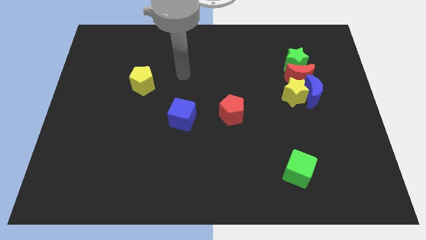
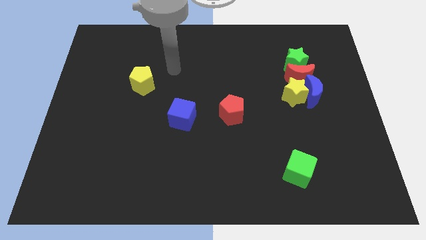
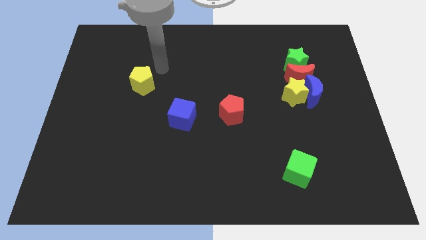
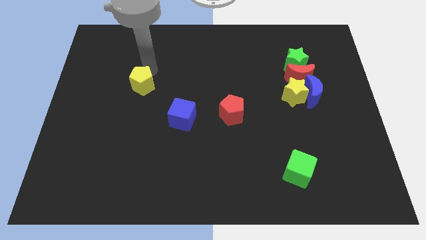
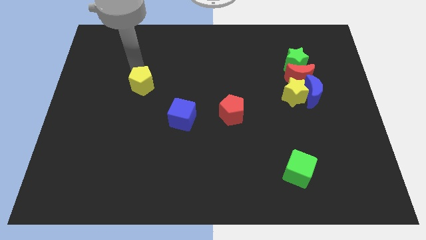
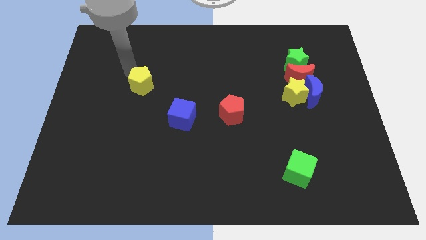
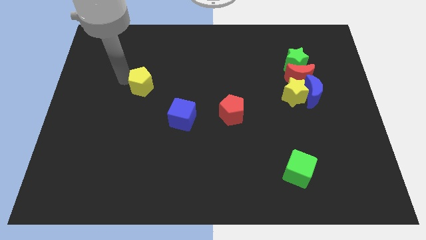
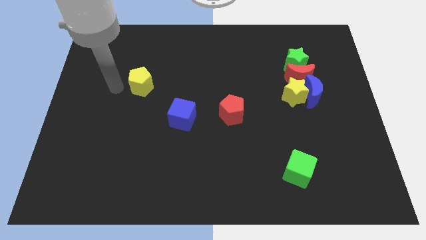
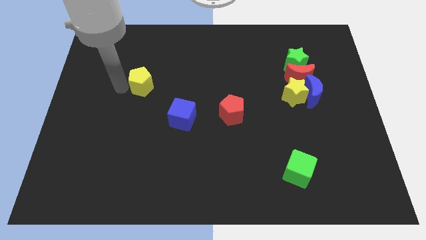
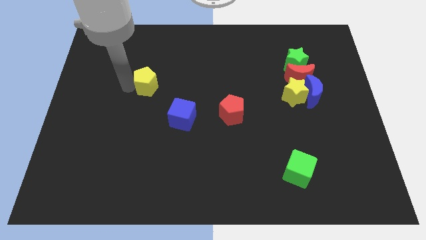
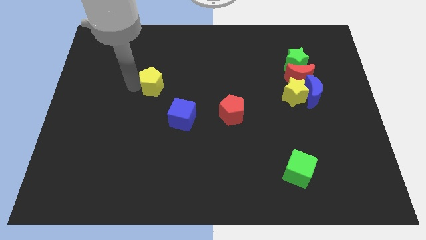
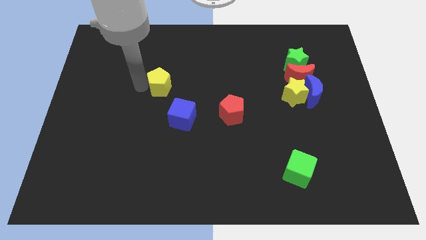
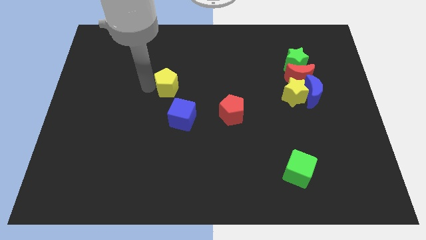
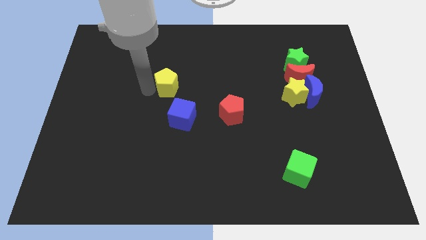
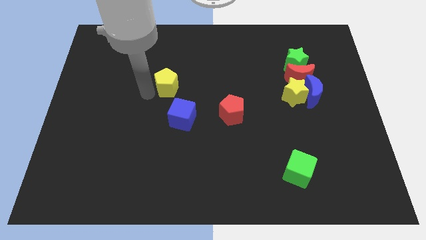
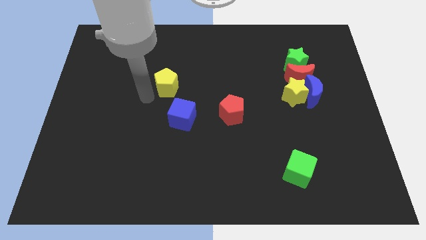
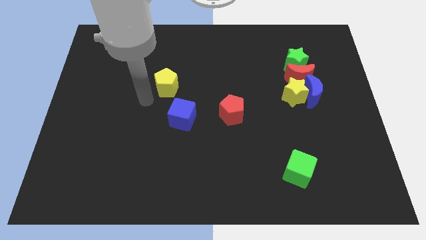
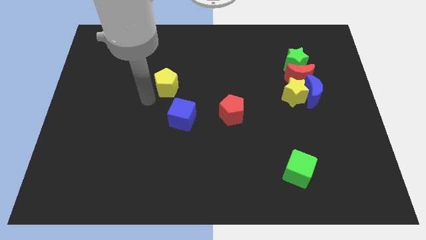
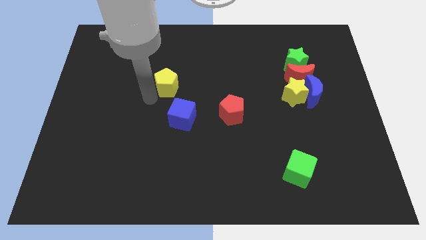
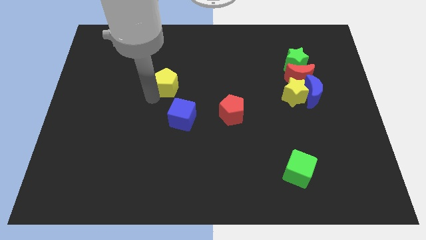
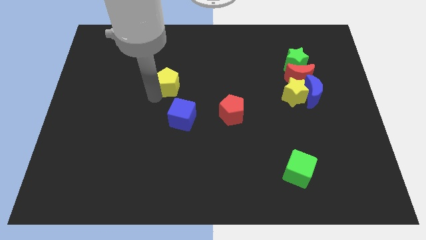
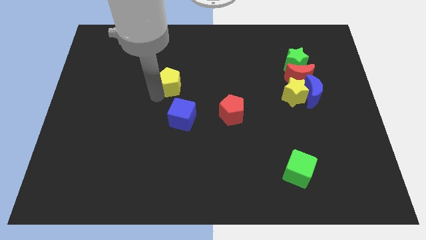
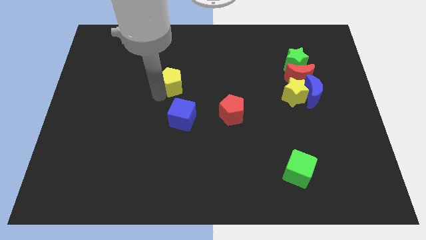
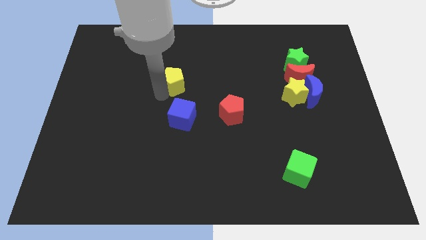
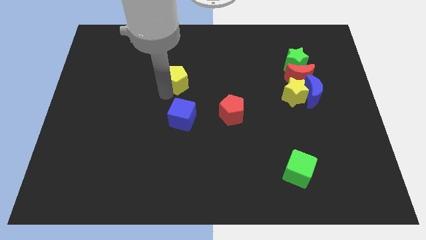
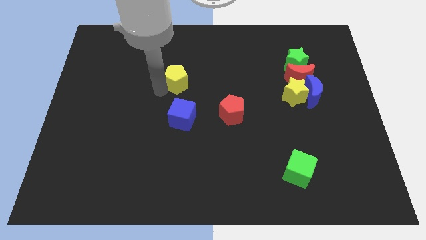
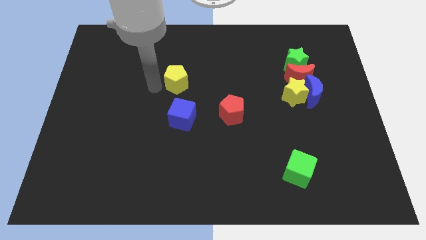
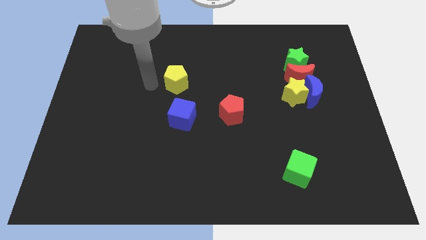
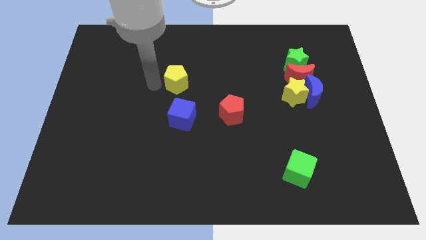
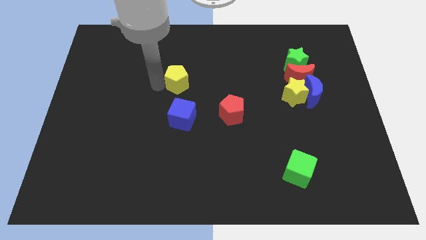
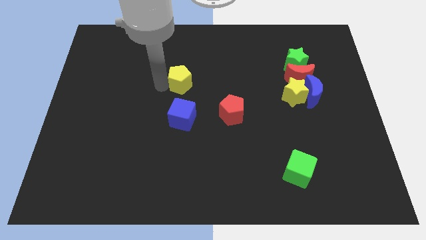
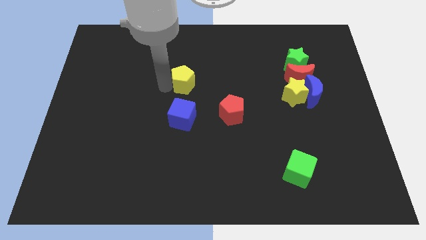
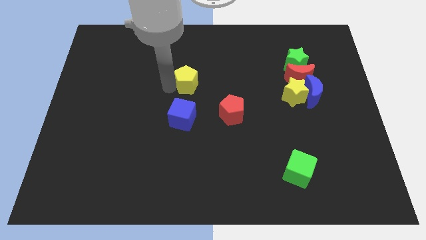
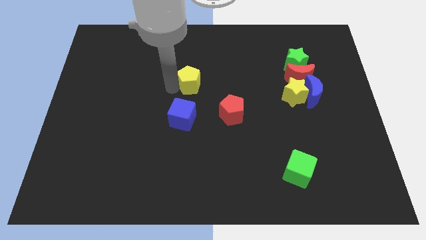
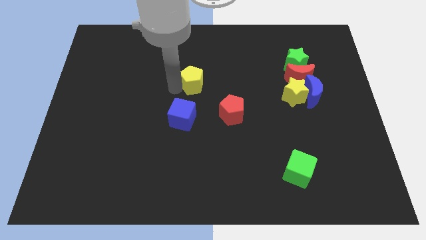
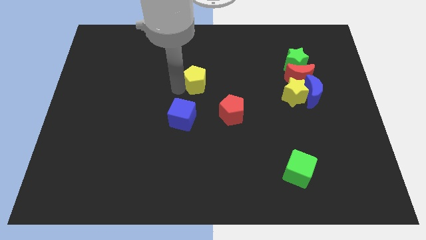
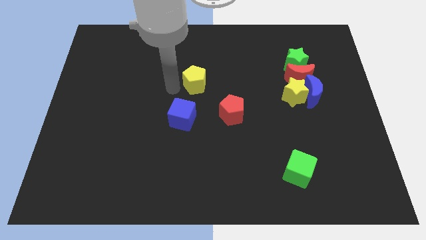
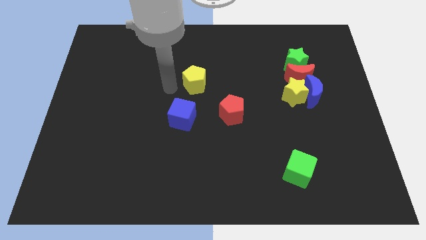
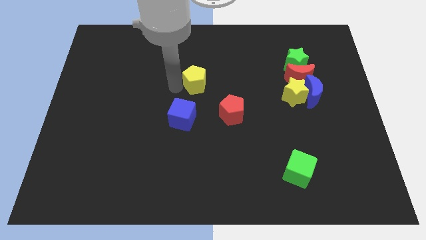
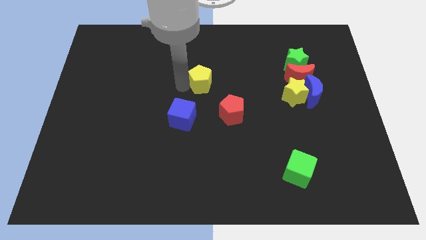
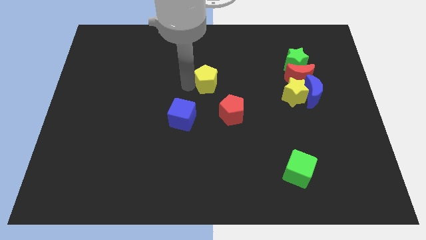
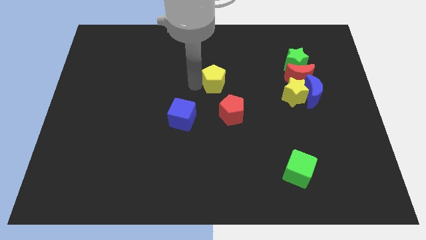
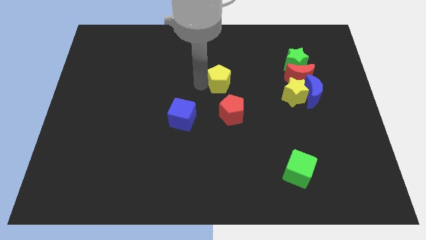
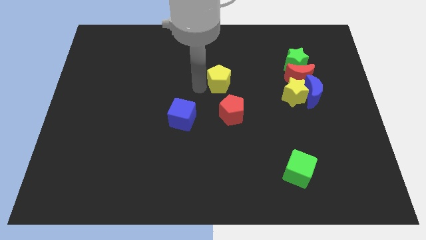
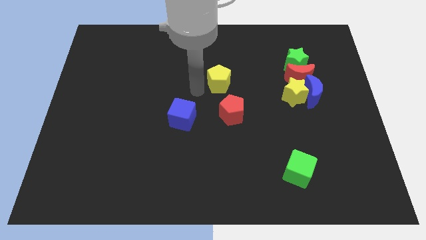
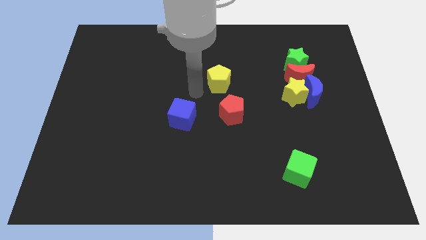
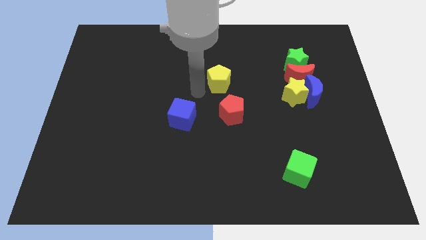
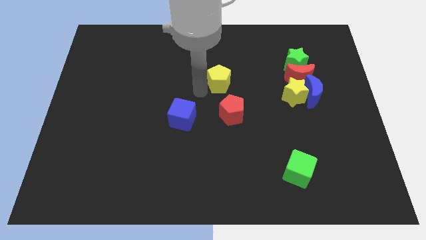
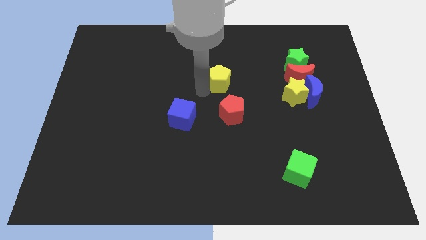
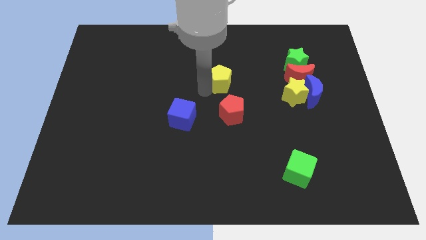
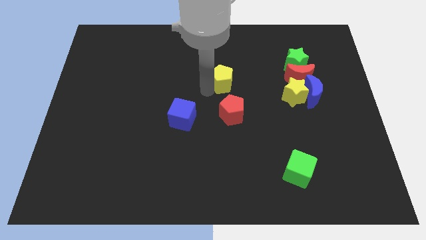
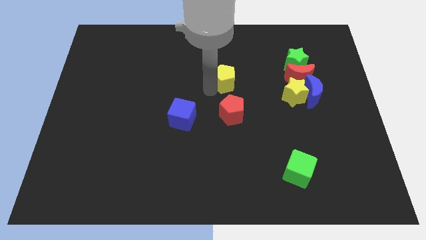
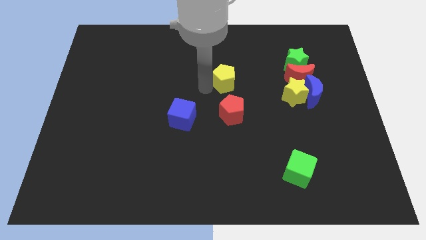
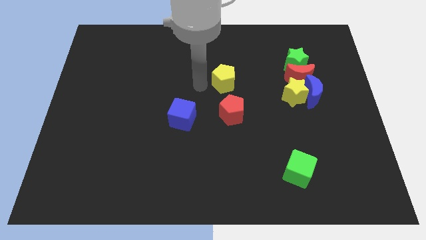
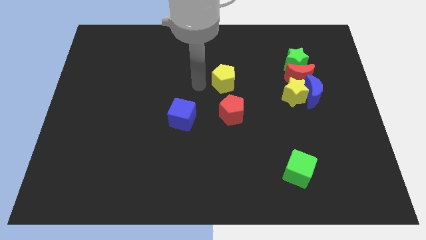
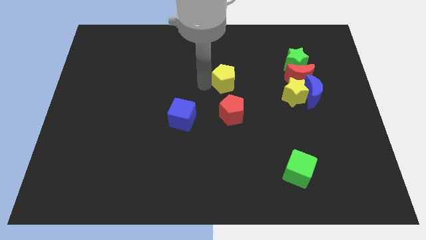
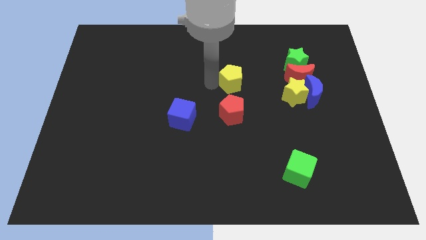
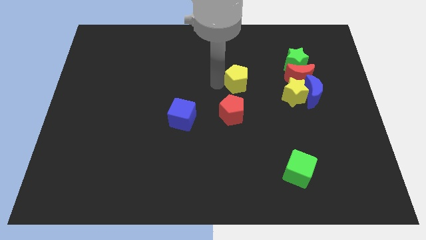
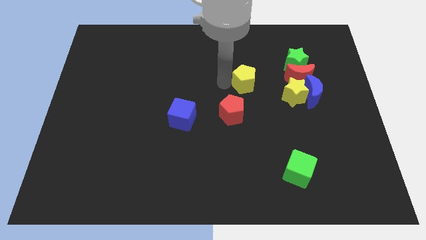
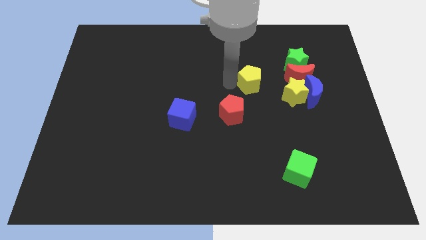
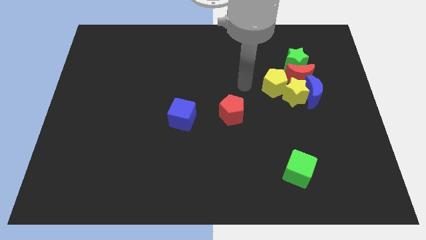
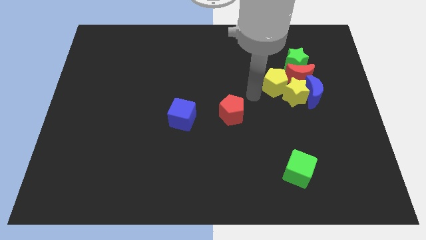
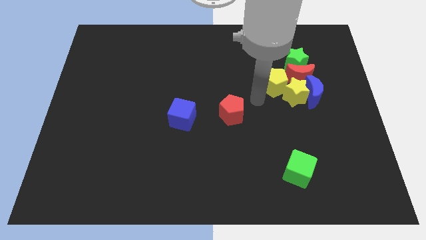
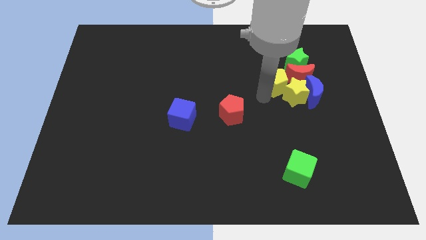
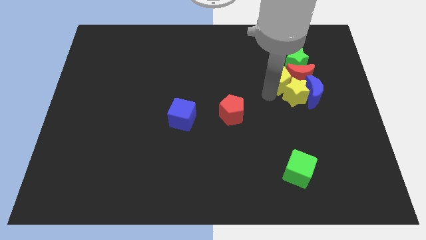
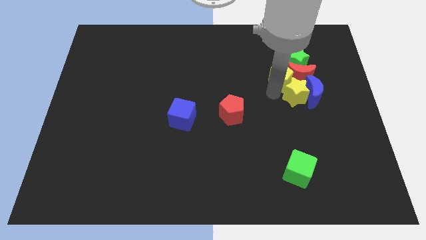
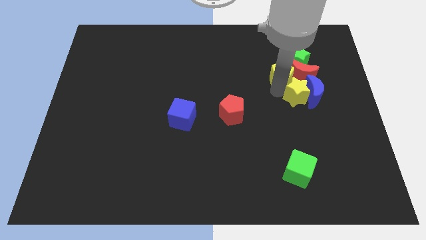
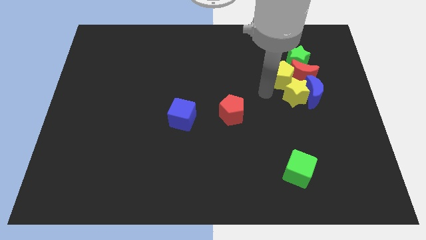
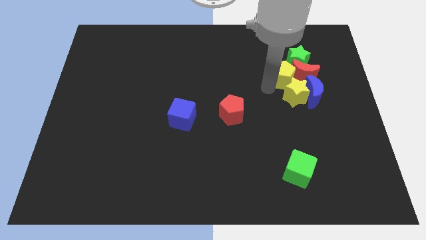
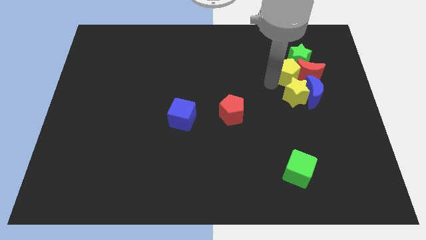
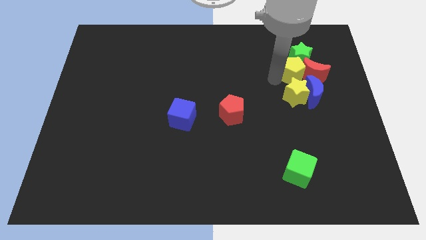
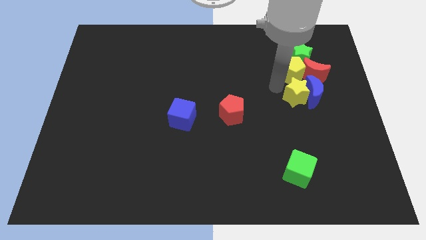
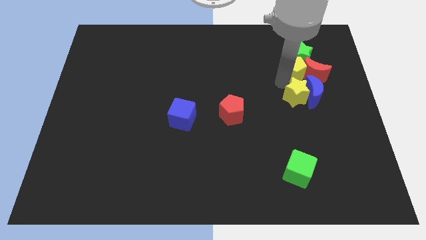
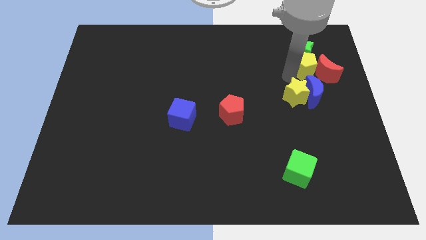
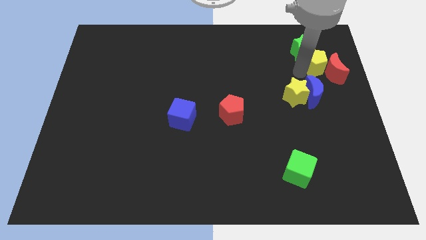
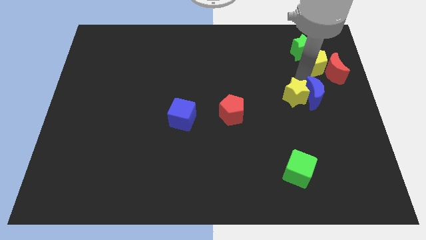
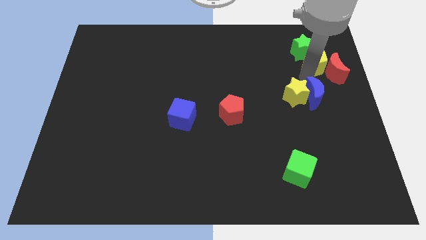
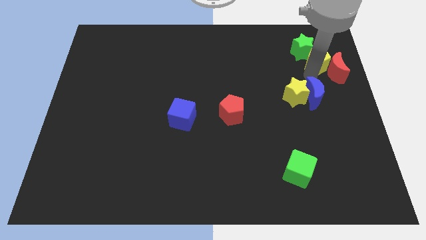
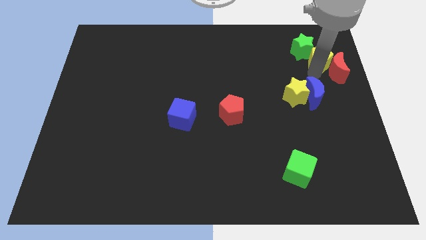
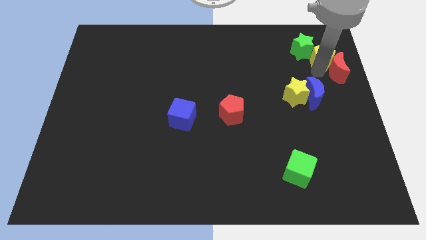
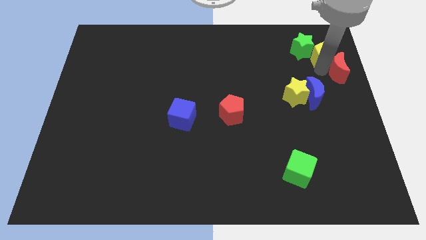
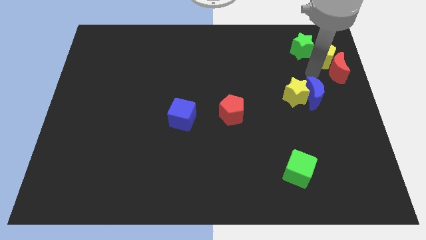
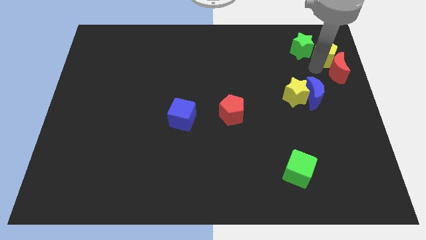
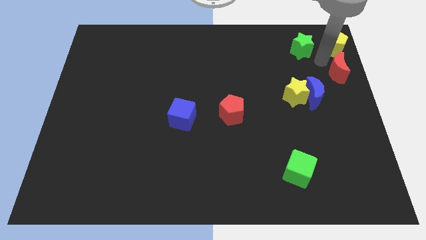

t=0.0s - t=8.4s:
slide the yellow pentagon to the top right
